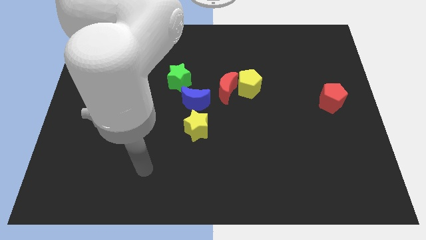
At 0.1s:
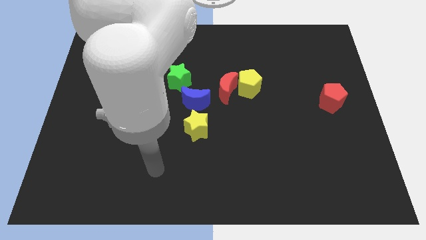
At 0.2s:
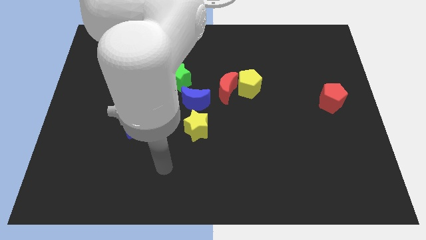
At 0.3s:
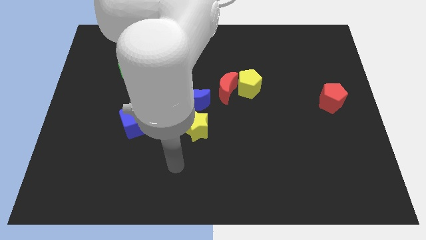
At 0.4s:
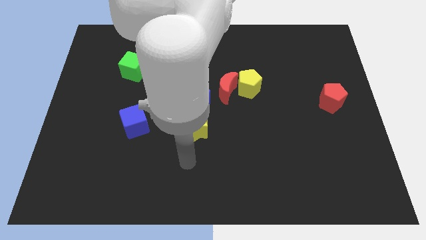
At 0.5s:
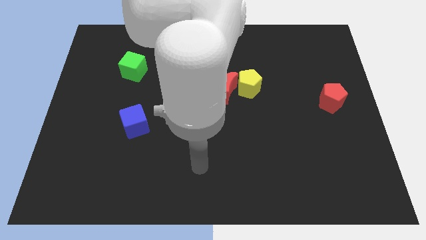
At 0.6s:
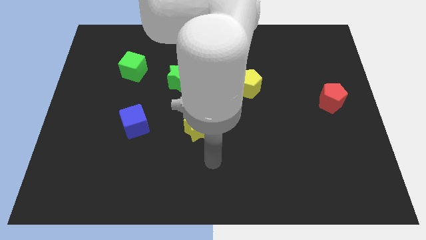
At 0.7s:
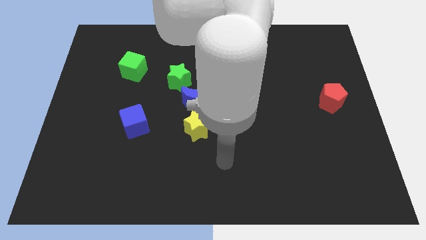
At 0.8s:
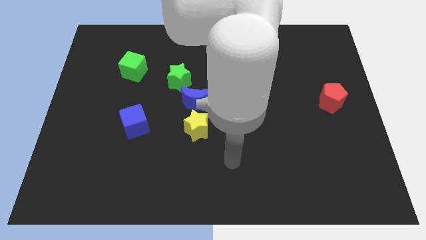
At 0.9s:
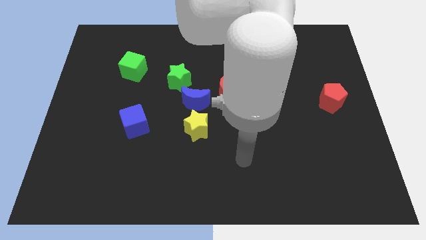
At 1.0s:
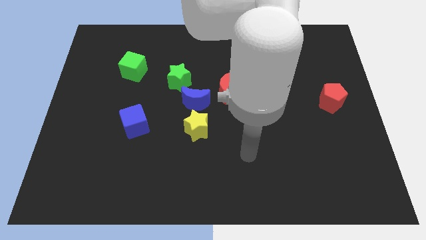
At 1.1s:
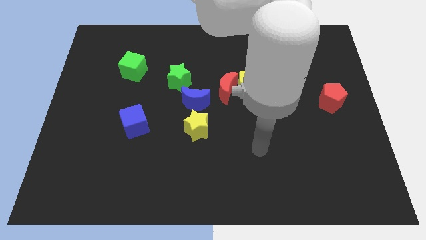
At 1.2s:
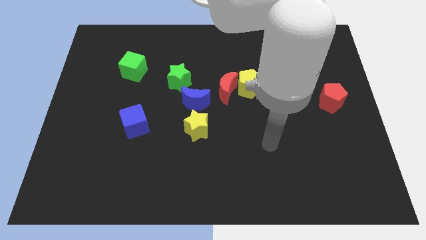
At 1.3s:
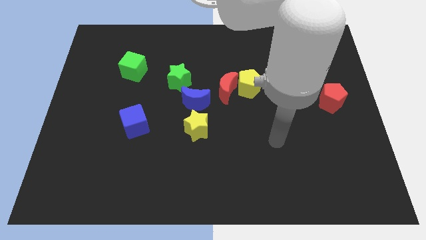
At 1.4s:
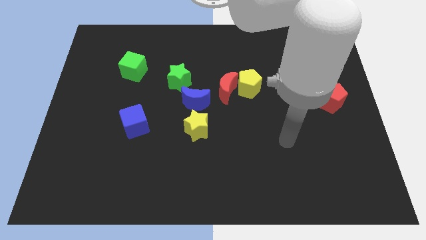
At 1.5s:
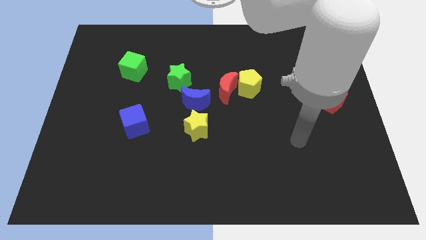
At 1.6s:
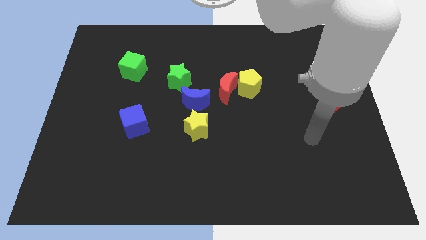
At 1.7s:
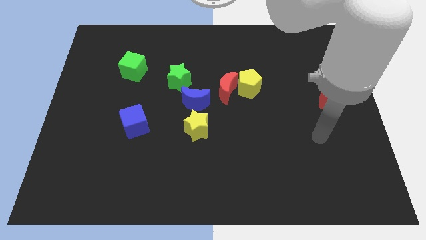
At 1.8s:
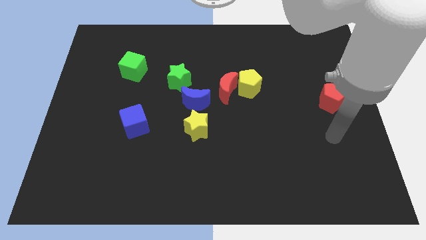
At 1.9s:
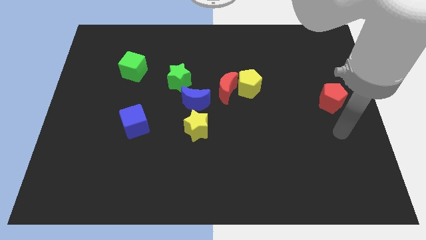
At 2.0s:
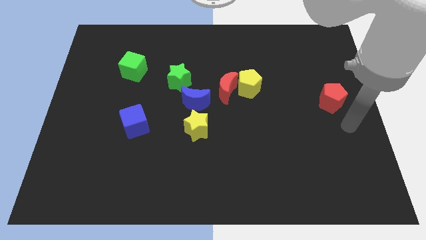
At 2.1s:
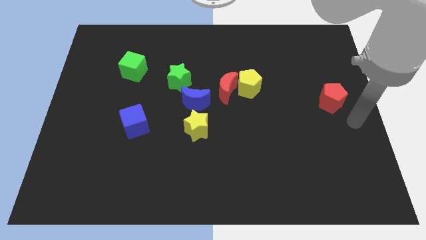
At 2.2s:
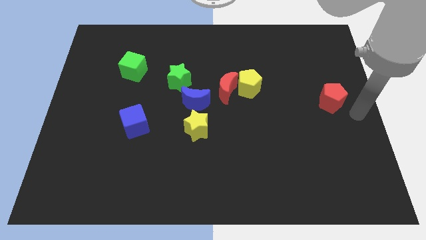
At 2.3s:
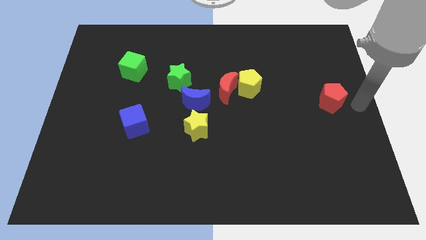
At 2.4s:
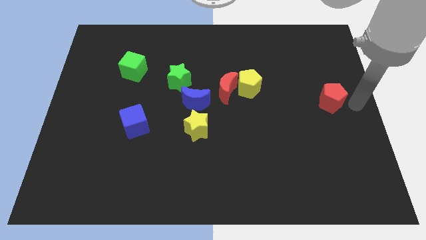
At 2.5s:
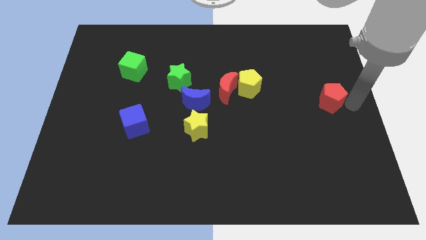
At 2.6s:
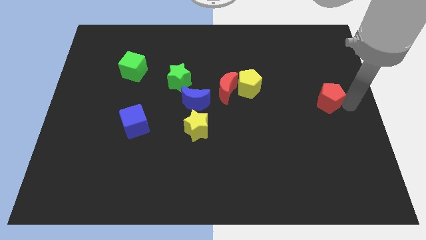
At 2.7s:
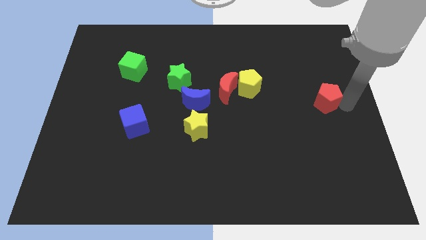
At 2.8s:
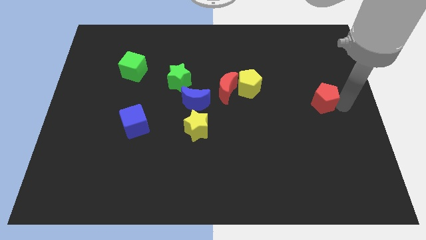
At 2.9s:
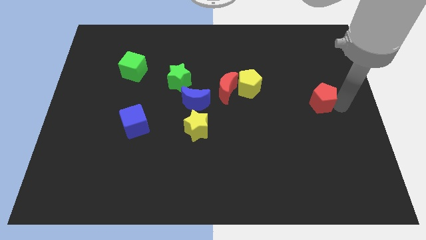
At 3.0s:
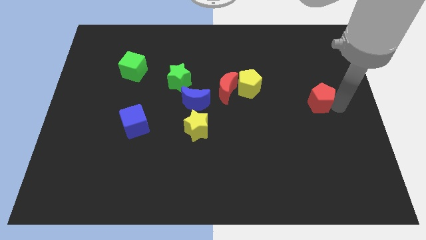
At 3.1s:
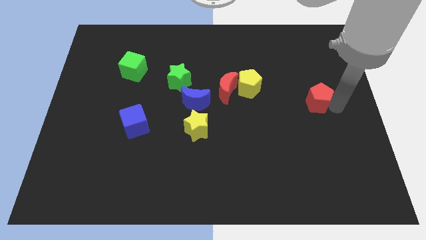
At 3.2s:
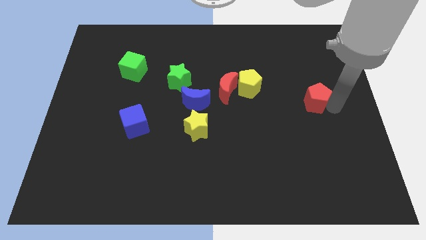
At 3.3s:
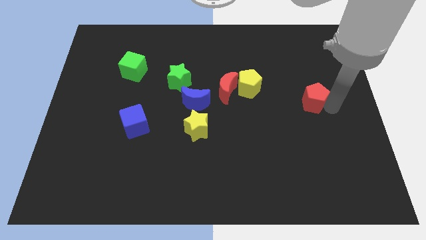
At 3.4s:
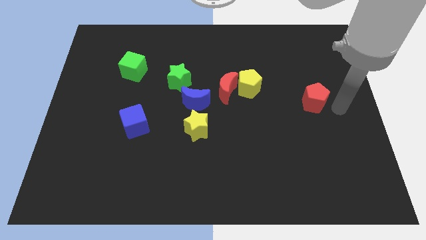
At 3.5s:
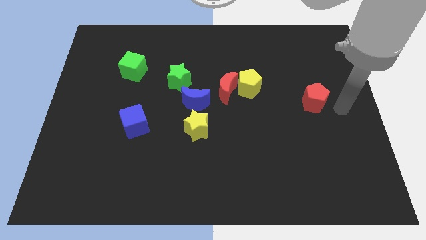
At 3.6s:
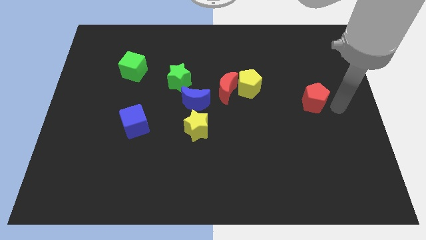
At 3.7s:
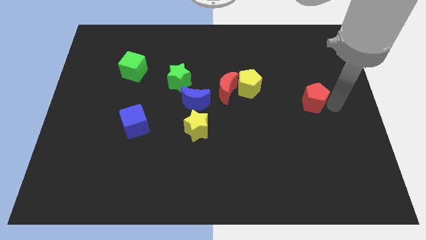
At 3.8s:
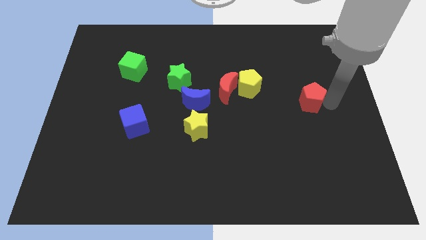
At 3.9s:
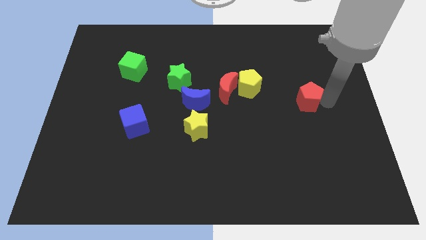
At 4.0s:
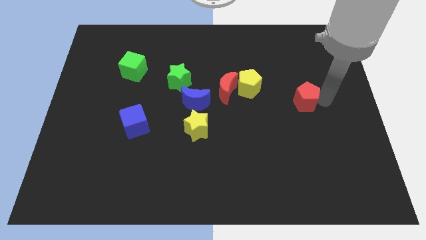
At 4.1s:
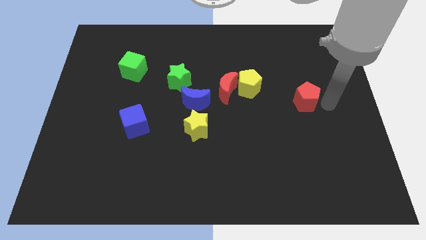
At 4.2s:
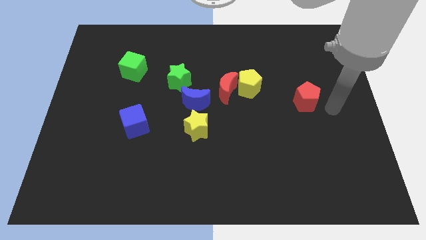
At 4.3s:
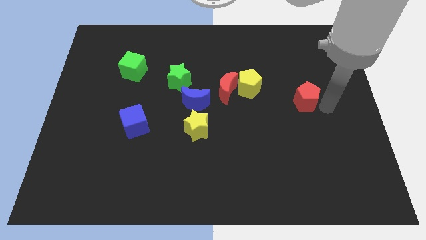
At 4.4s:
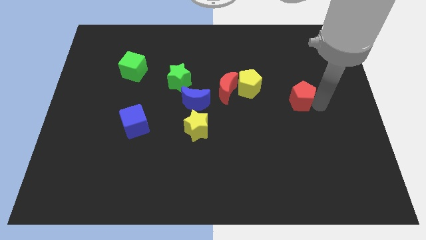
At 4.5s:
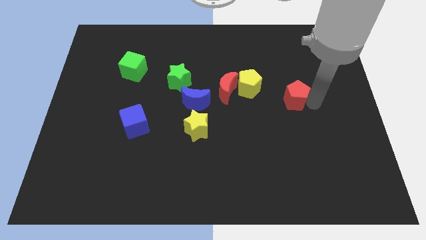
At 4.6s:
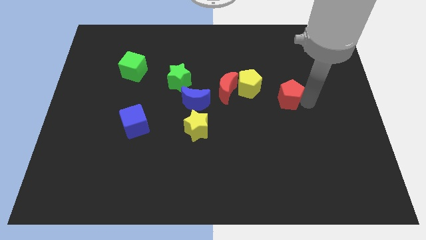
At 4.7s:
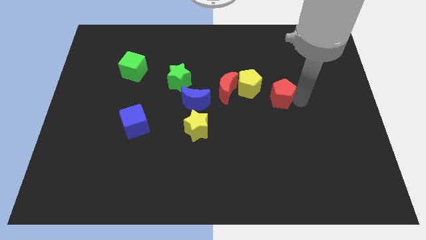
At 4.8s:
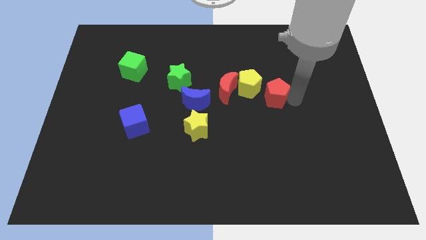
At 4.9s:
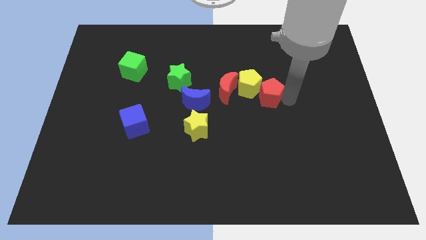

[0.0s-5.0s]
move the red pentagon towards the yellow pentagon

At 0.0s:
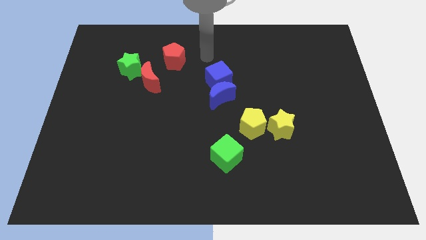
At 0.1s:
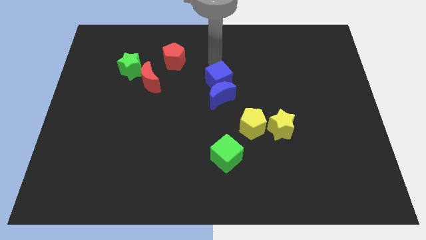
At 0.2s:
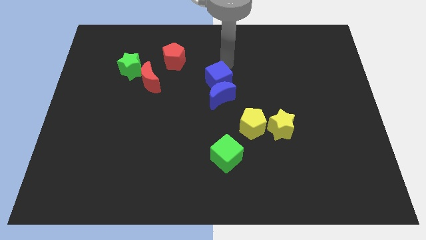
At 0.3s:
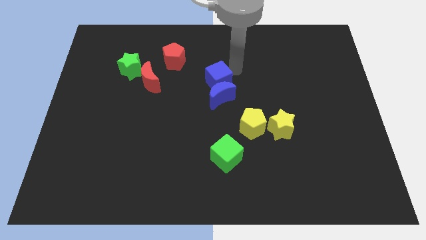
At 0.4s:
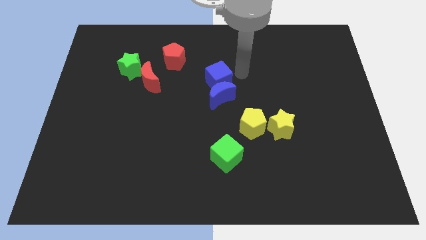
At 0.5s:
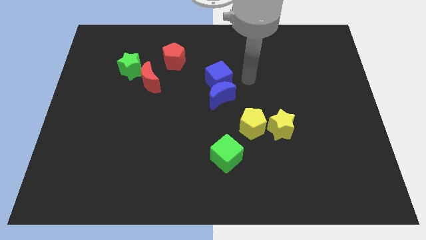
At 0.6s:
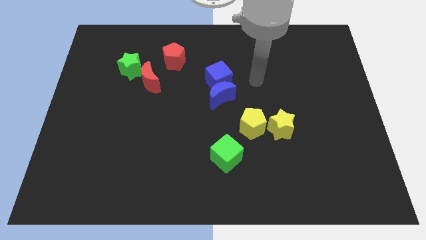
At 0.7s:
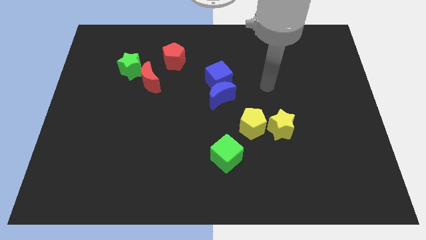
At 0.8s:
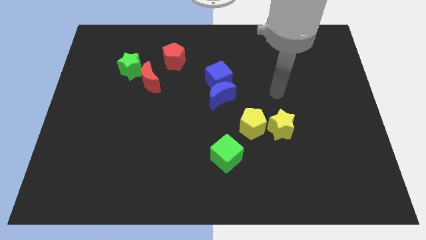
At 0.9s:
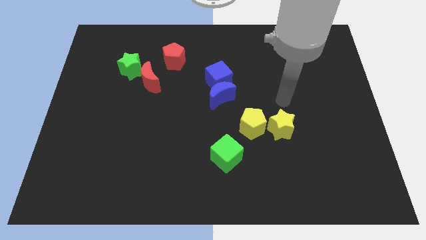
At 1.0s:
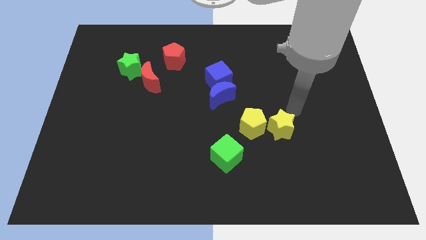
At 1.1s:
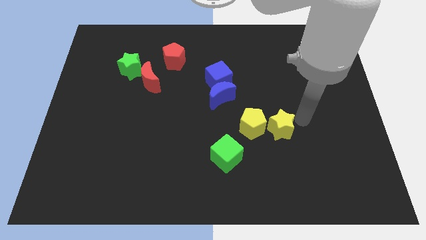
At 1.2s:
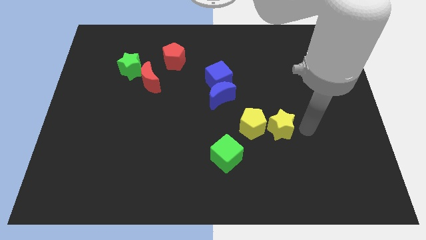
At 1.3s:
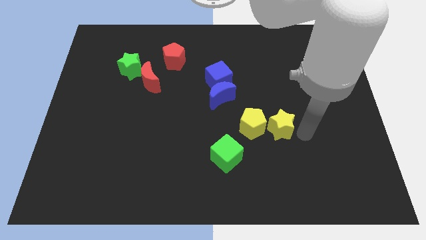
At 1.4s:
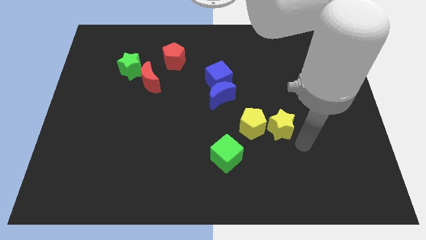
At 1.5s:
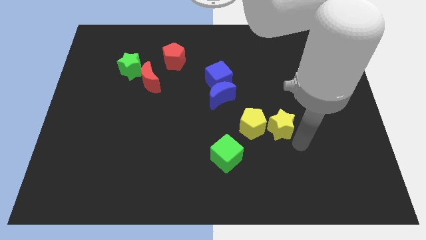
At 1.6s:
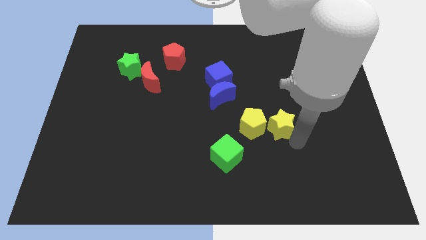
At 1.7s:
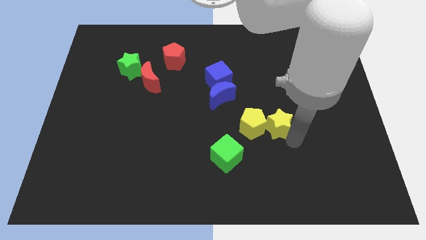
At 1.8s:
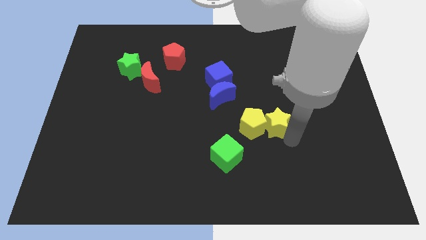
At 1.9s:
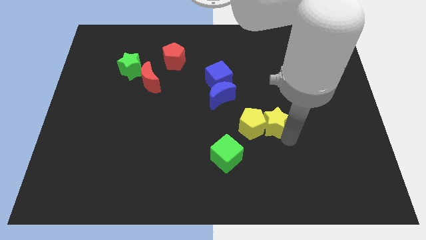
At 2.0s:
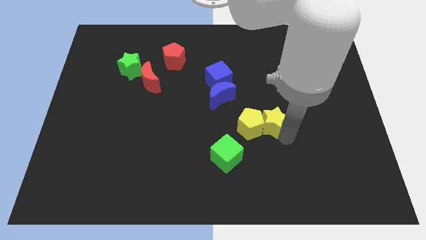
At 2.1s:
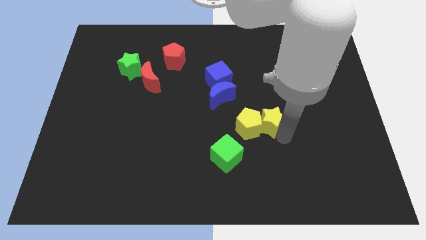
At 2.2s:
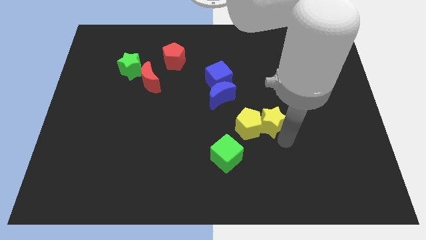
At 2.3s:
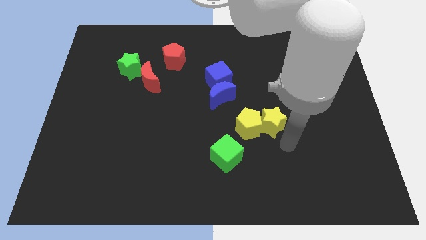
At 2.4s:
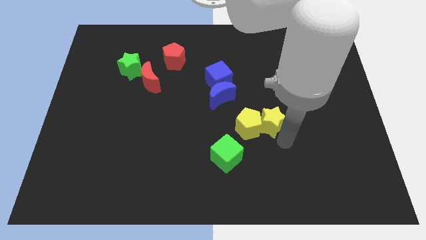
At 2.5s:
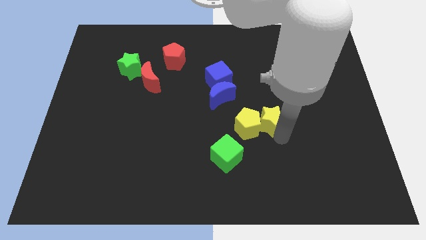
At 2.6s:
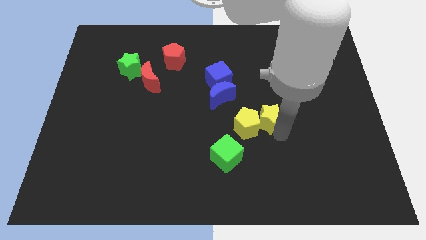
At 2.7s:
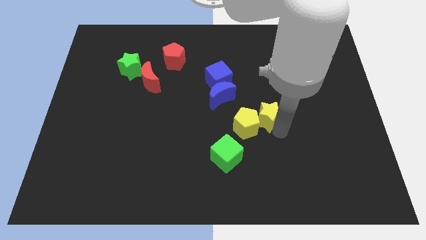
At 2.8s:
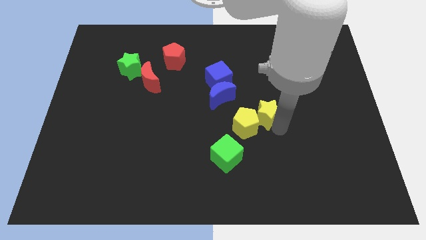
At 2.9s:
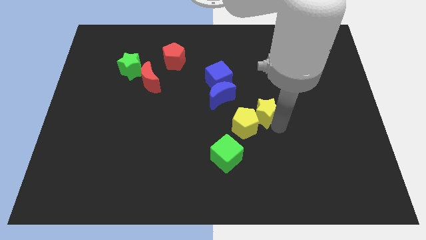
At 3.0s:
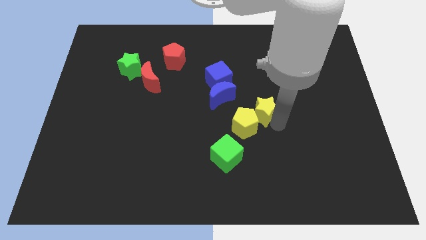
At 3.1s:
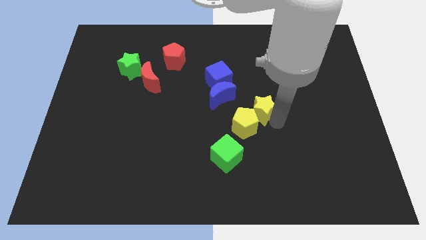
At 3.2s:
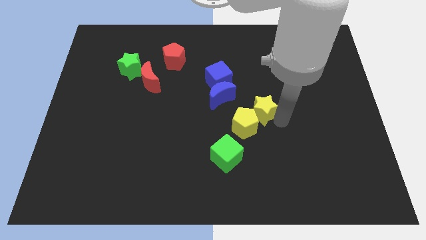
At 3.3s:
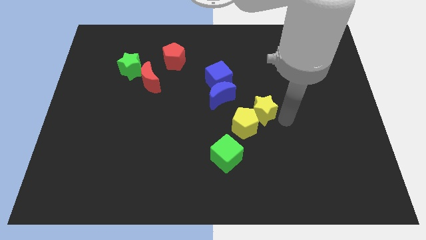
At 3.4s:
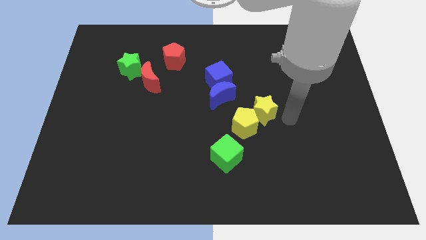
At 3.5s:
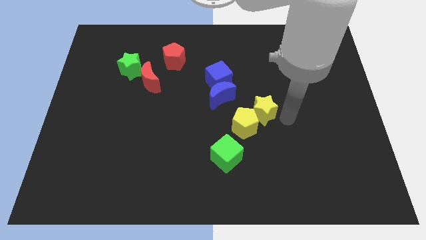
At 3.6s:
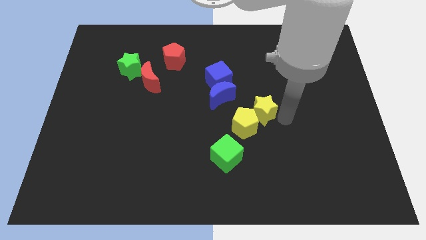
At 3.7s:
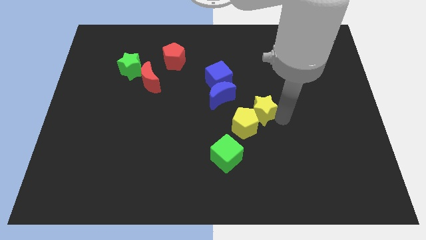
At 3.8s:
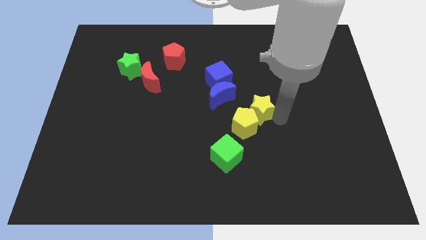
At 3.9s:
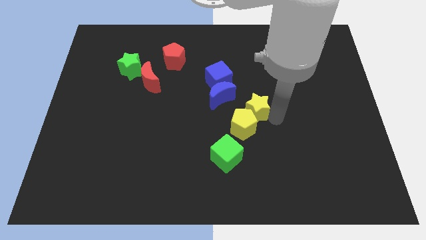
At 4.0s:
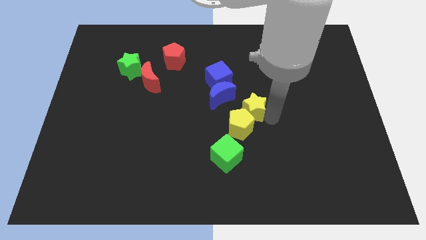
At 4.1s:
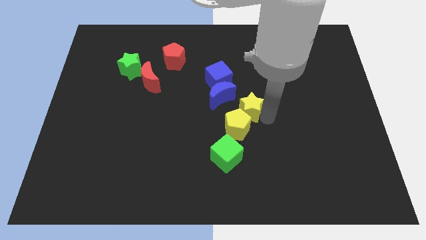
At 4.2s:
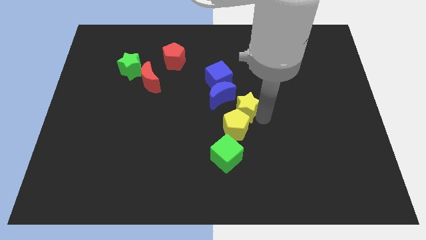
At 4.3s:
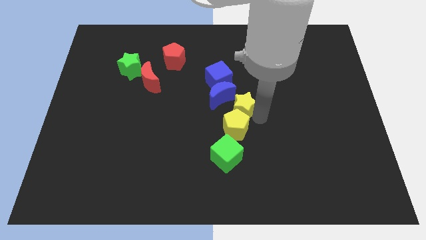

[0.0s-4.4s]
slide the yellow star next to the blue moon
